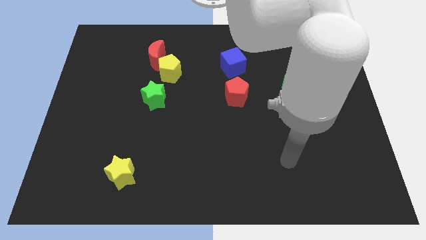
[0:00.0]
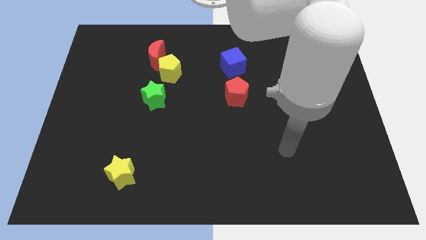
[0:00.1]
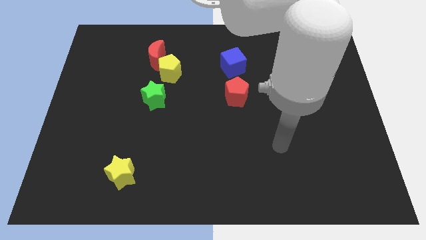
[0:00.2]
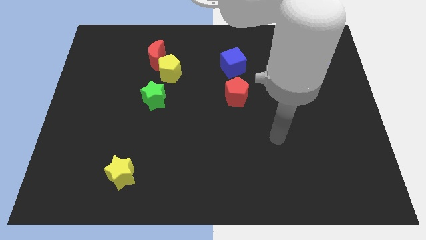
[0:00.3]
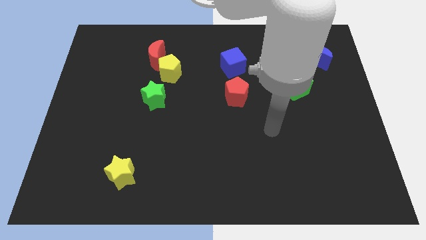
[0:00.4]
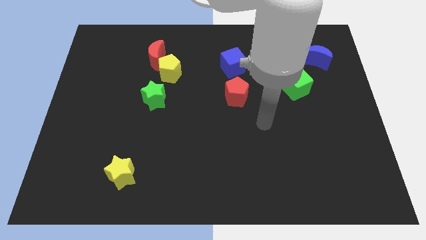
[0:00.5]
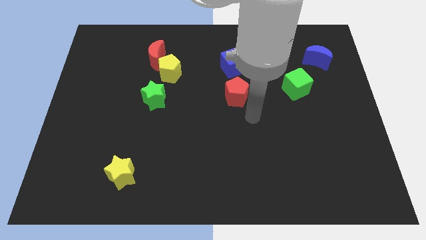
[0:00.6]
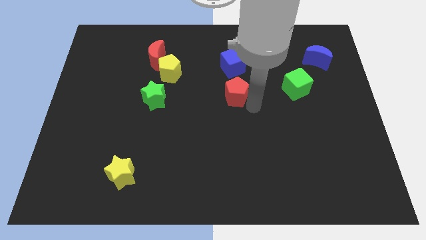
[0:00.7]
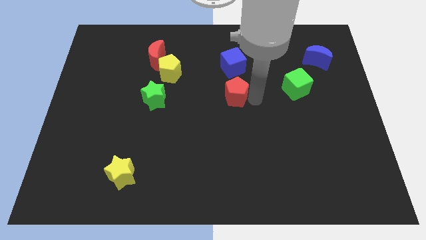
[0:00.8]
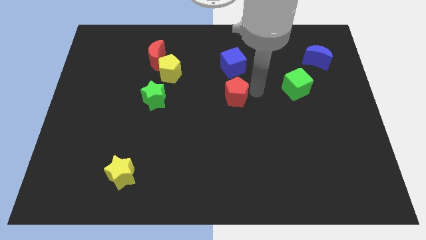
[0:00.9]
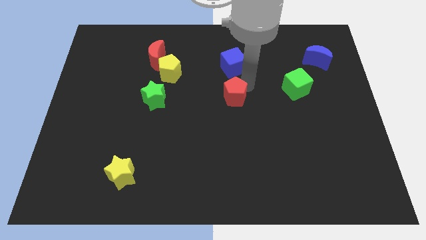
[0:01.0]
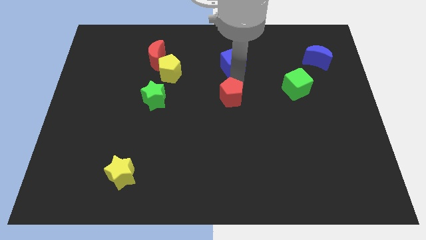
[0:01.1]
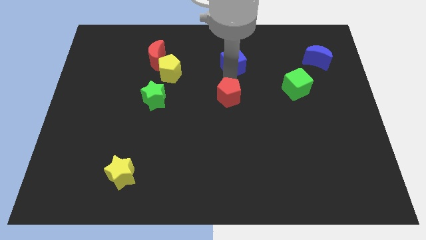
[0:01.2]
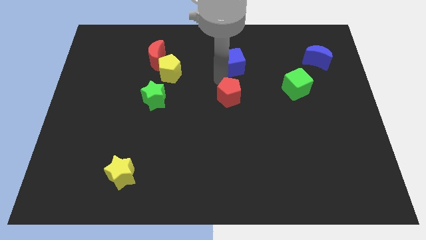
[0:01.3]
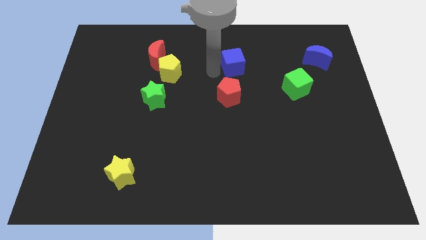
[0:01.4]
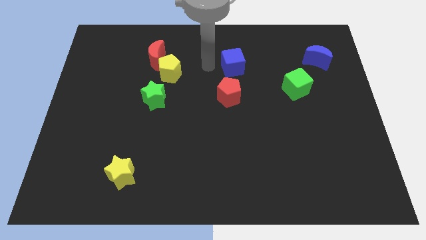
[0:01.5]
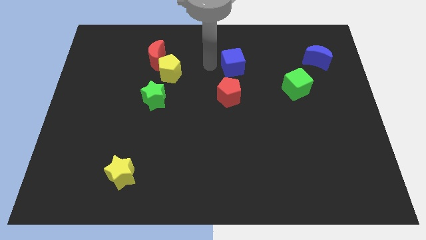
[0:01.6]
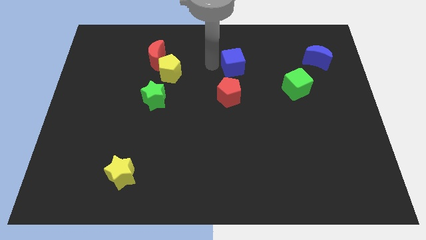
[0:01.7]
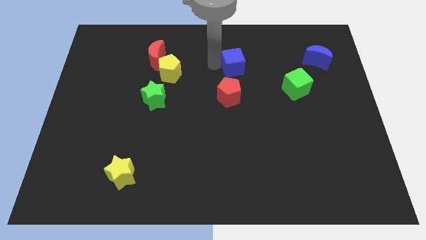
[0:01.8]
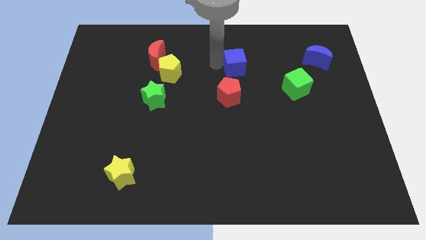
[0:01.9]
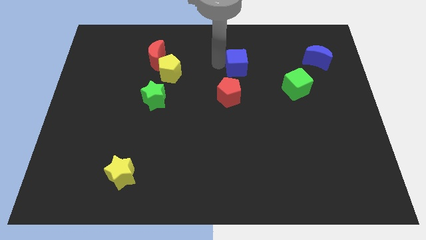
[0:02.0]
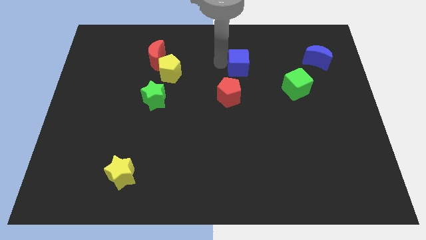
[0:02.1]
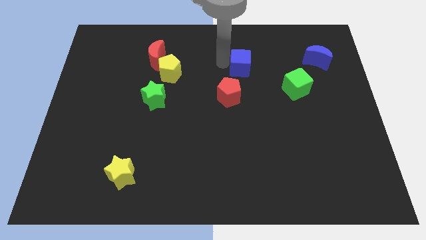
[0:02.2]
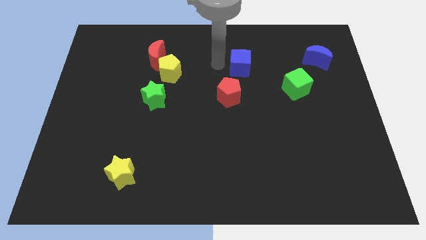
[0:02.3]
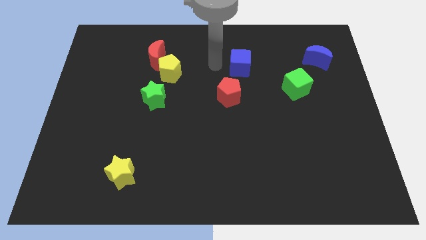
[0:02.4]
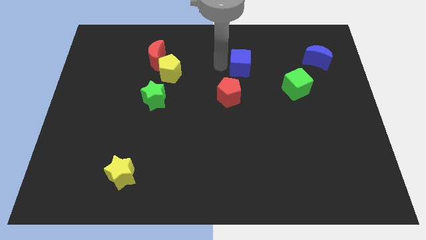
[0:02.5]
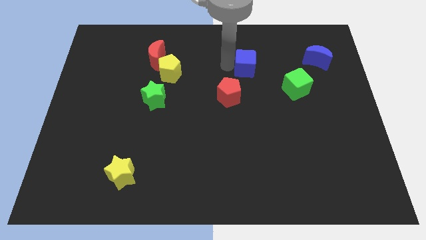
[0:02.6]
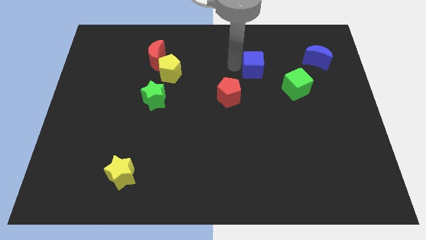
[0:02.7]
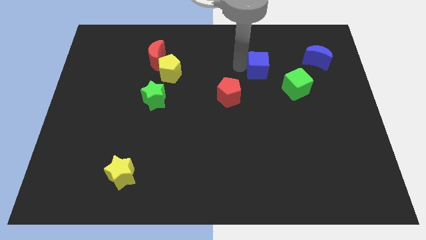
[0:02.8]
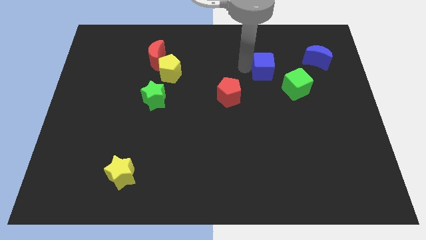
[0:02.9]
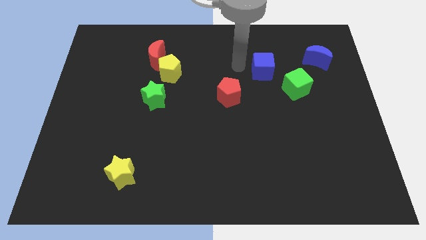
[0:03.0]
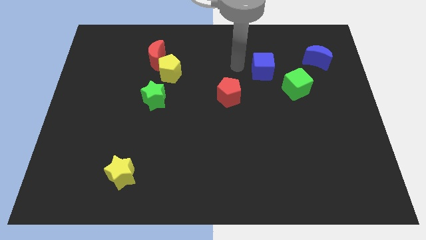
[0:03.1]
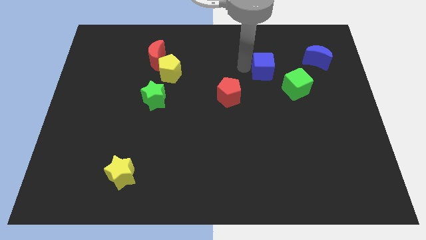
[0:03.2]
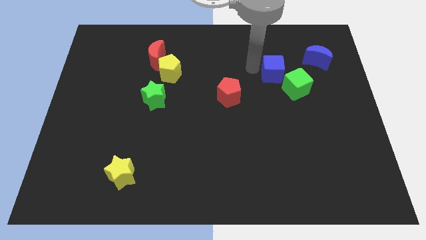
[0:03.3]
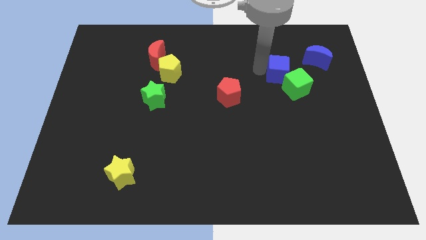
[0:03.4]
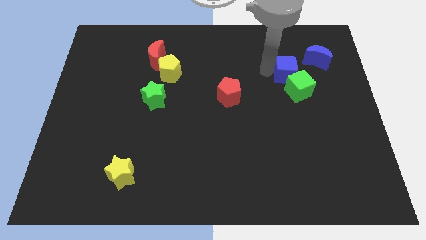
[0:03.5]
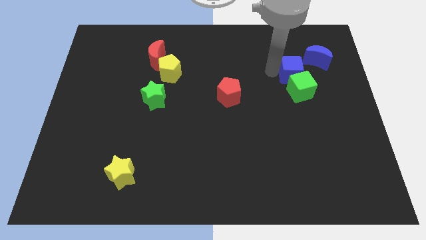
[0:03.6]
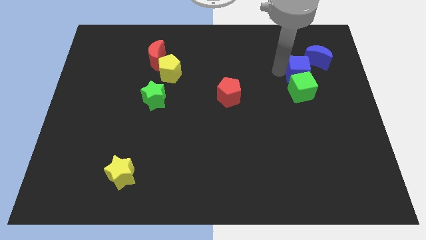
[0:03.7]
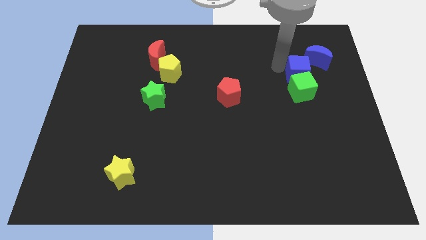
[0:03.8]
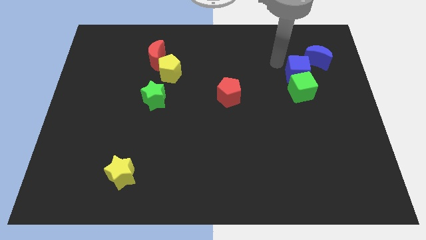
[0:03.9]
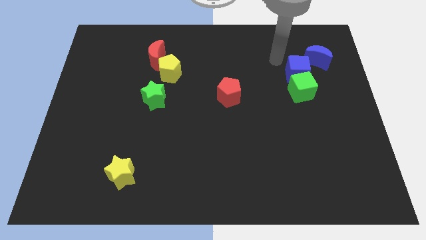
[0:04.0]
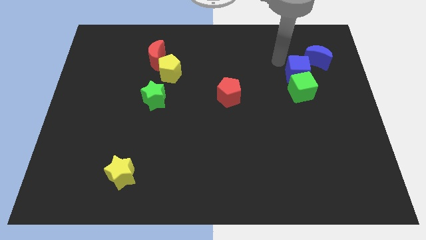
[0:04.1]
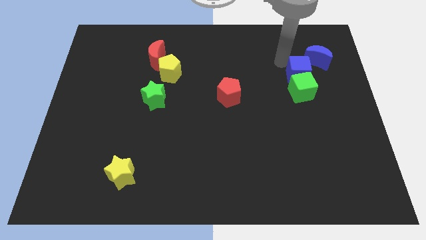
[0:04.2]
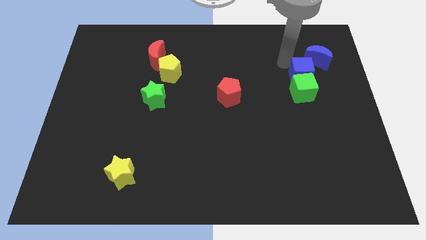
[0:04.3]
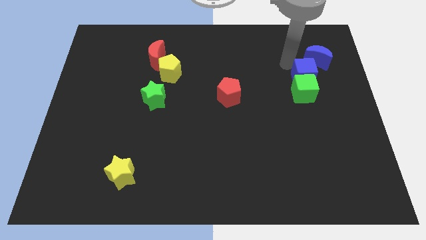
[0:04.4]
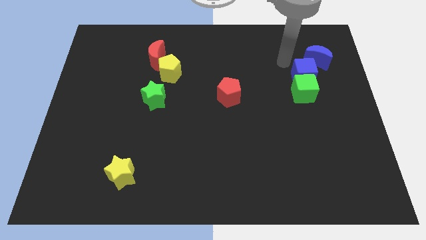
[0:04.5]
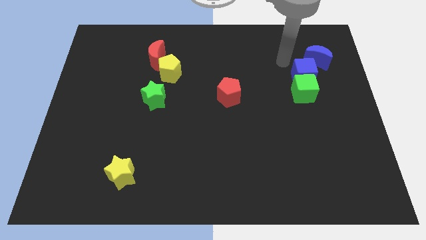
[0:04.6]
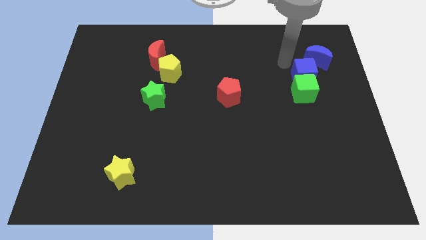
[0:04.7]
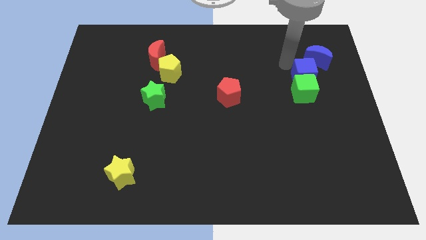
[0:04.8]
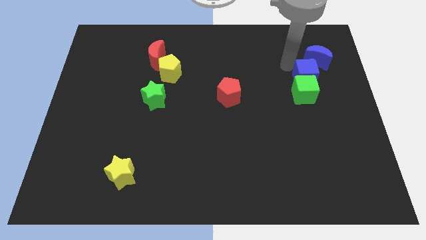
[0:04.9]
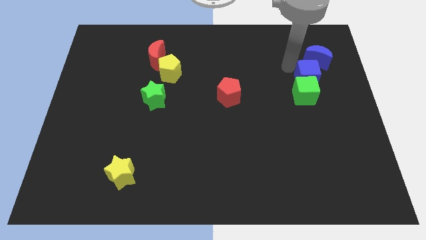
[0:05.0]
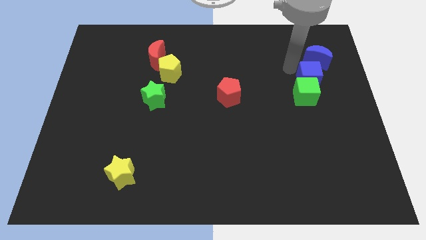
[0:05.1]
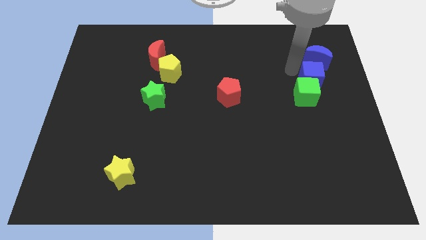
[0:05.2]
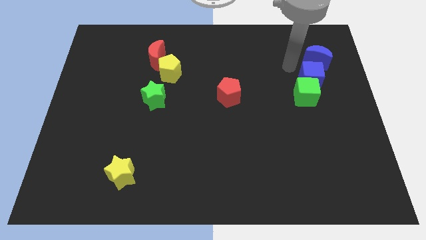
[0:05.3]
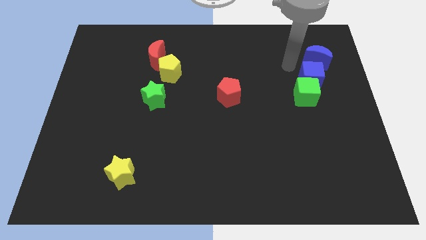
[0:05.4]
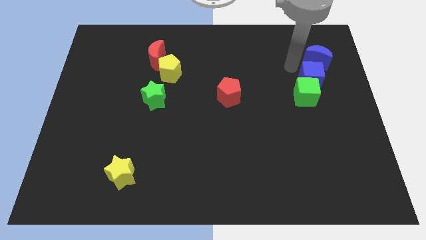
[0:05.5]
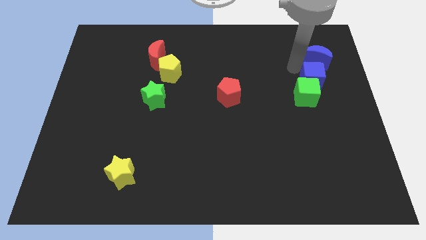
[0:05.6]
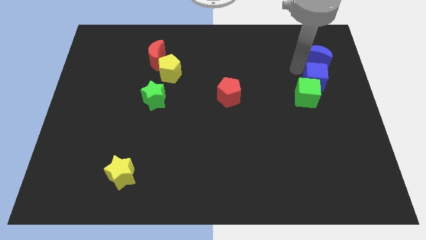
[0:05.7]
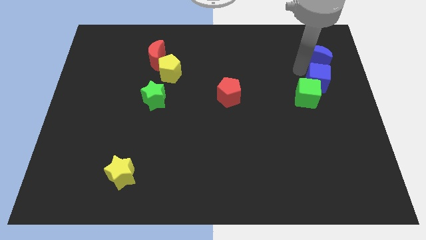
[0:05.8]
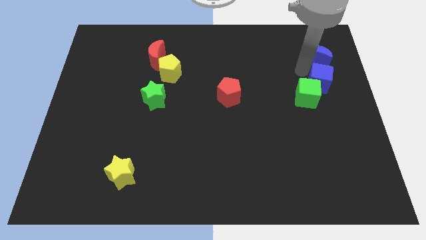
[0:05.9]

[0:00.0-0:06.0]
slide the blue cube to the center right

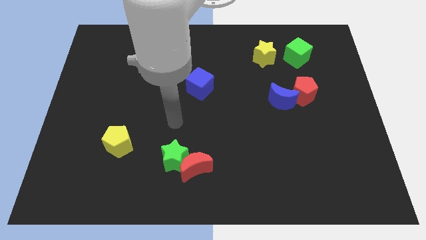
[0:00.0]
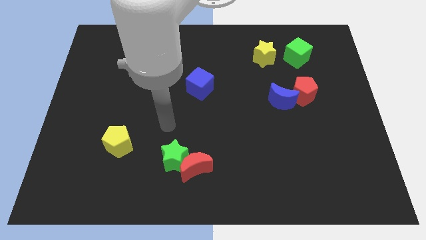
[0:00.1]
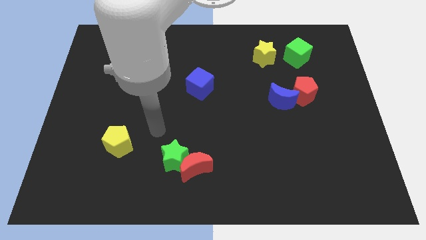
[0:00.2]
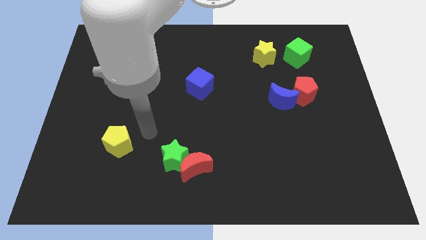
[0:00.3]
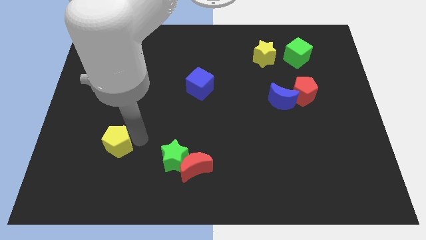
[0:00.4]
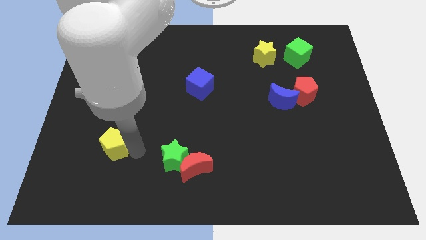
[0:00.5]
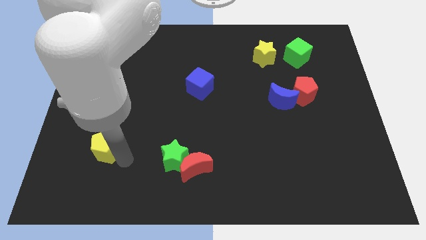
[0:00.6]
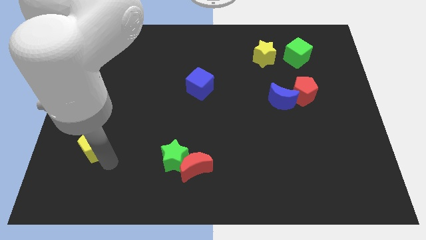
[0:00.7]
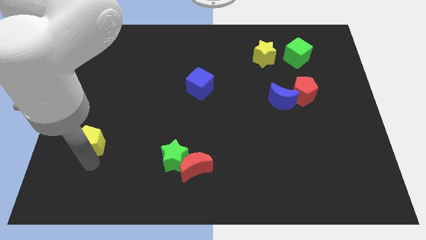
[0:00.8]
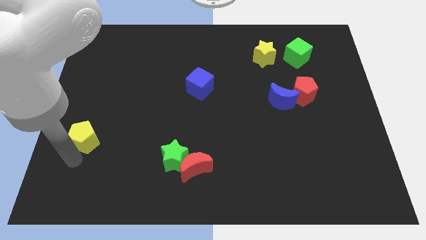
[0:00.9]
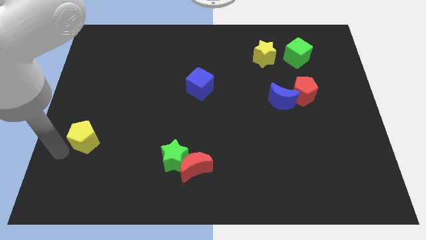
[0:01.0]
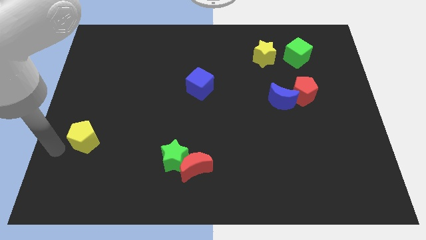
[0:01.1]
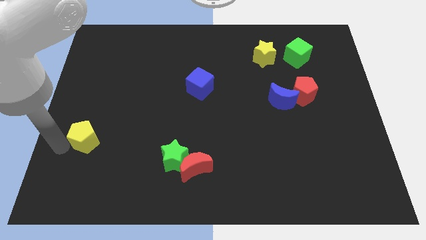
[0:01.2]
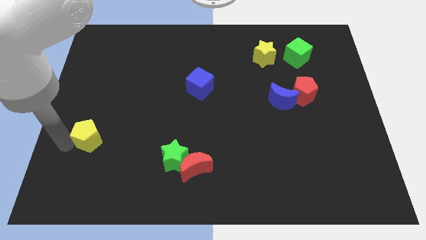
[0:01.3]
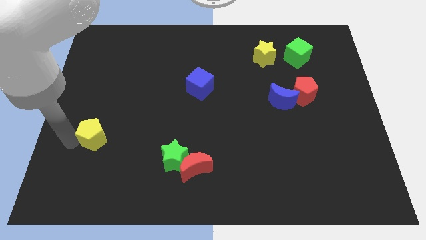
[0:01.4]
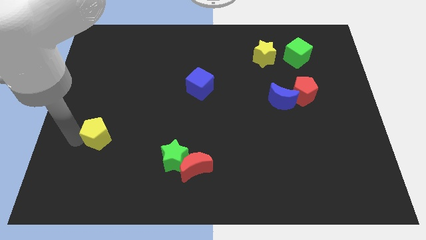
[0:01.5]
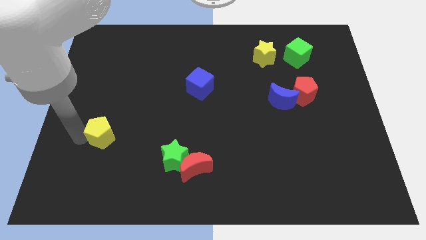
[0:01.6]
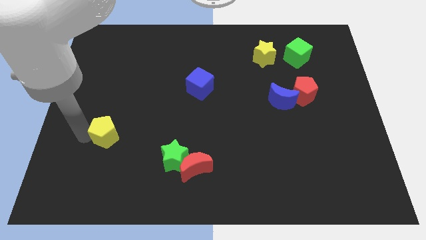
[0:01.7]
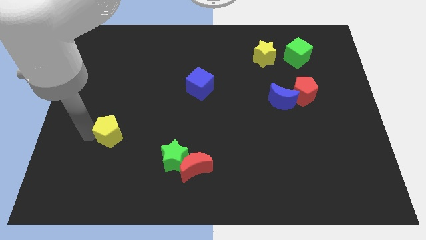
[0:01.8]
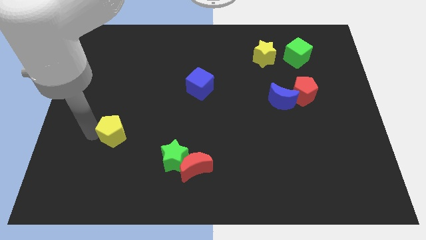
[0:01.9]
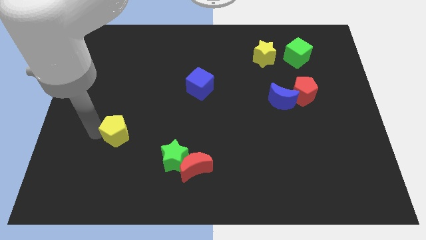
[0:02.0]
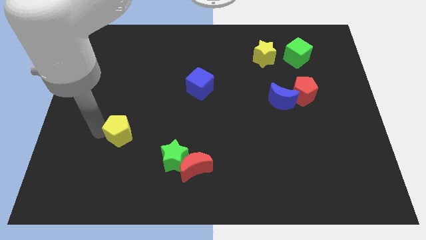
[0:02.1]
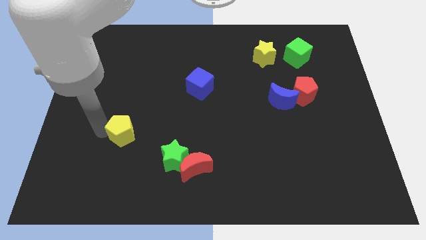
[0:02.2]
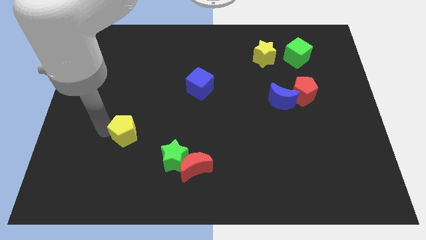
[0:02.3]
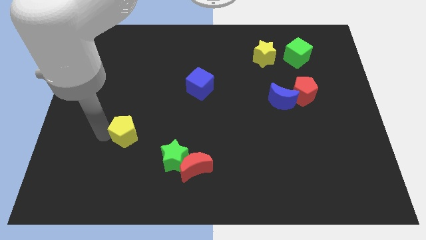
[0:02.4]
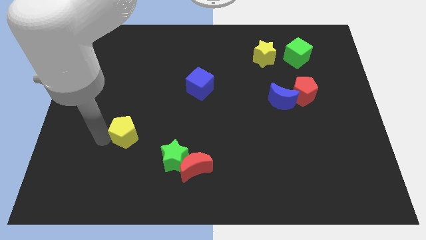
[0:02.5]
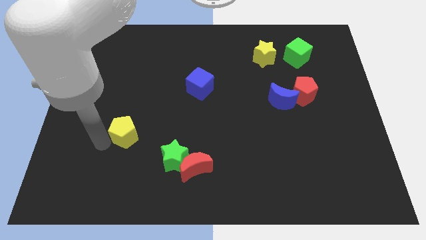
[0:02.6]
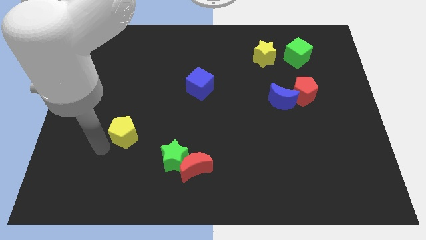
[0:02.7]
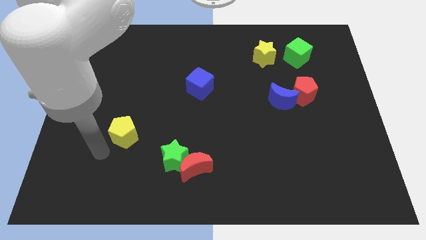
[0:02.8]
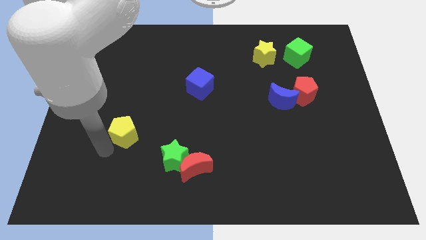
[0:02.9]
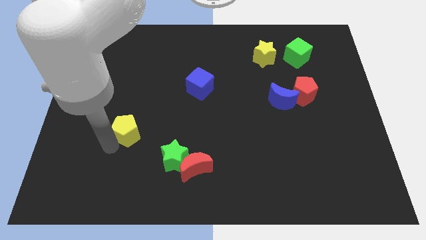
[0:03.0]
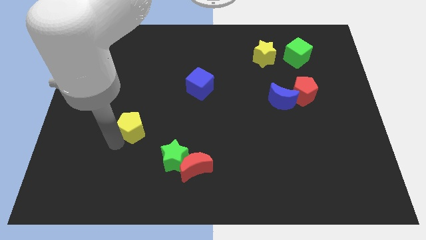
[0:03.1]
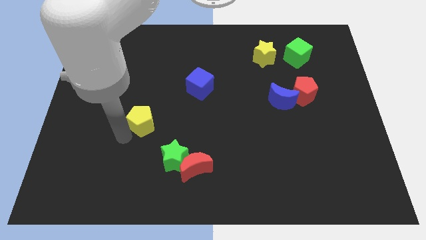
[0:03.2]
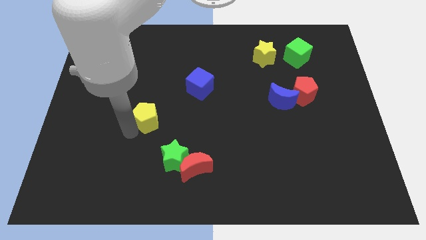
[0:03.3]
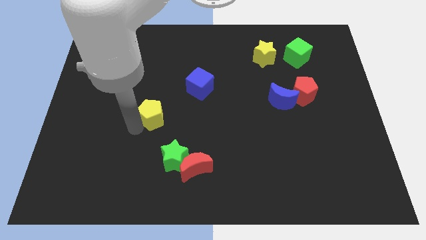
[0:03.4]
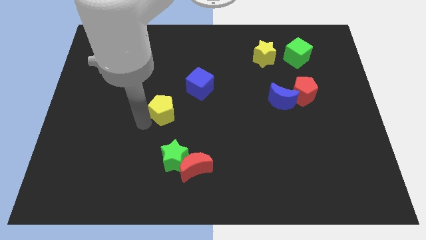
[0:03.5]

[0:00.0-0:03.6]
slide the yellow pentagon to the middle of the board
